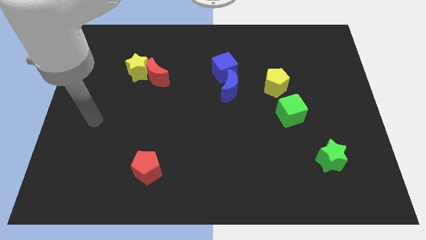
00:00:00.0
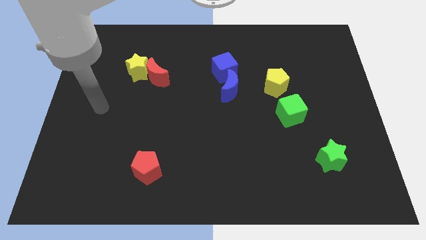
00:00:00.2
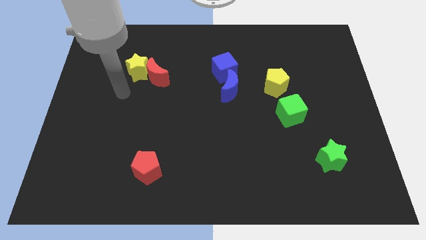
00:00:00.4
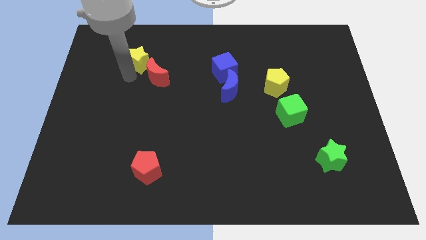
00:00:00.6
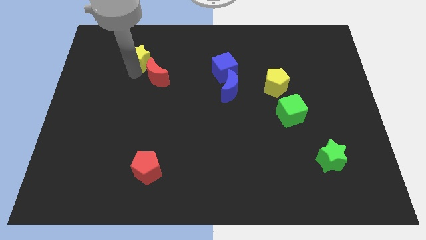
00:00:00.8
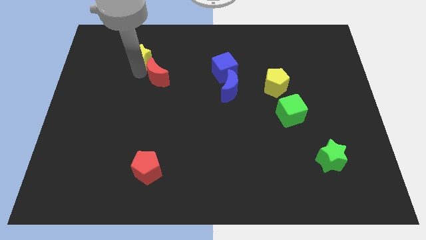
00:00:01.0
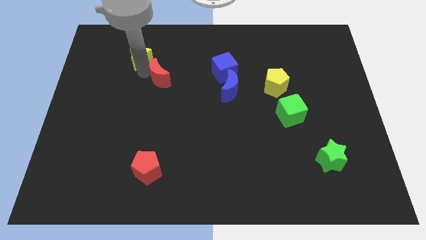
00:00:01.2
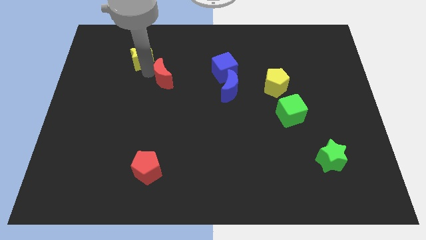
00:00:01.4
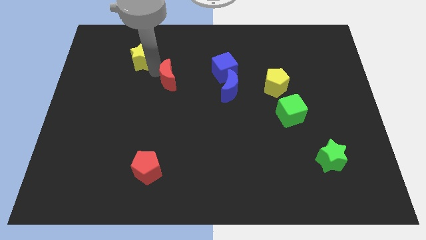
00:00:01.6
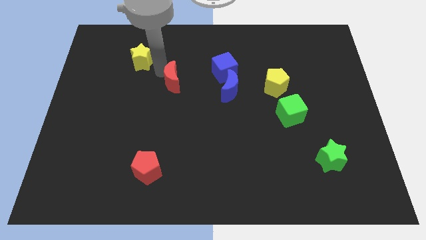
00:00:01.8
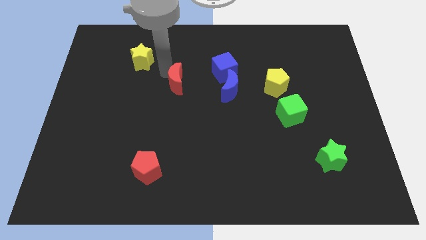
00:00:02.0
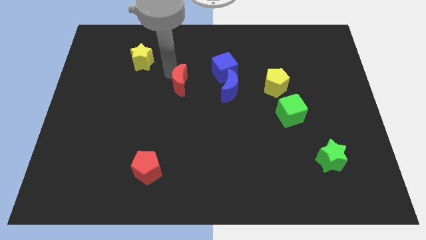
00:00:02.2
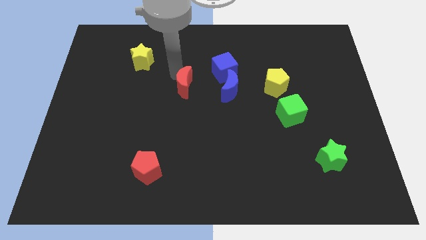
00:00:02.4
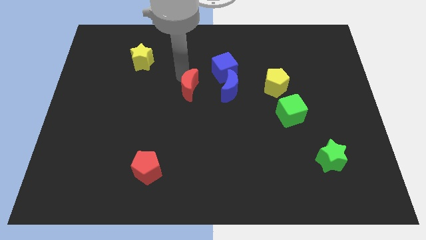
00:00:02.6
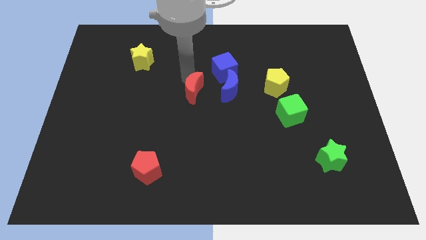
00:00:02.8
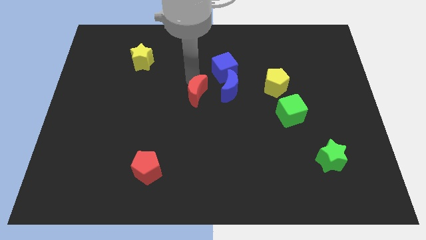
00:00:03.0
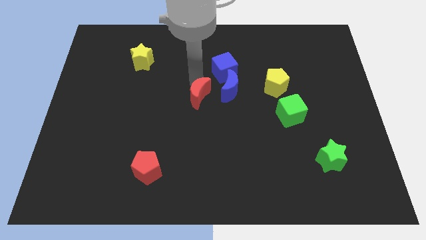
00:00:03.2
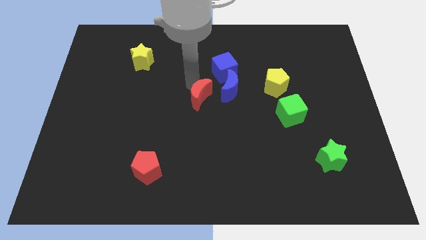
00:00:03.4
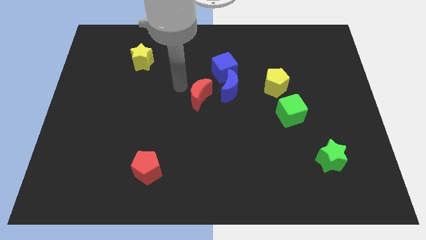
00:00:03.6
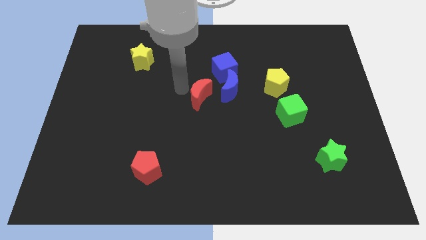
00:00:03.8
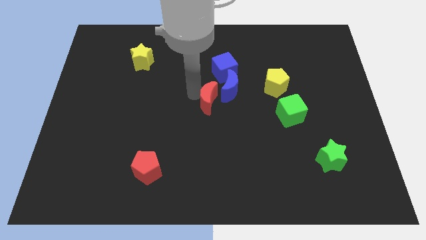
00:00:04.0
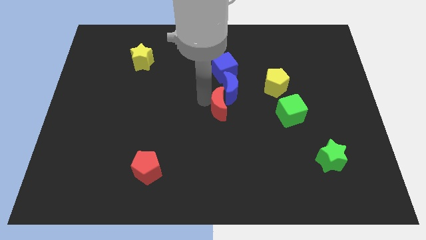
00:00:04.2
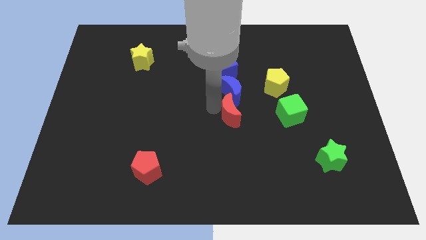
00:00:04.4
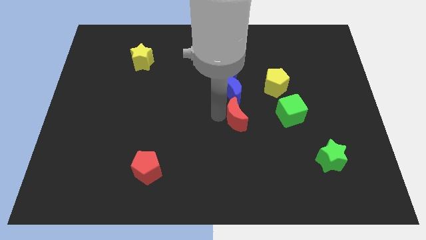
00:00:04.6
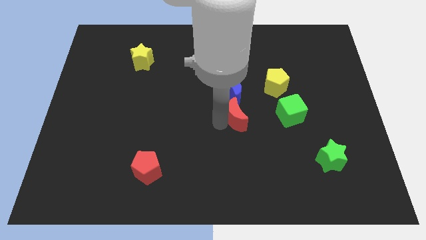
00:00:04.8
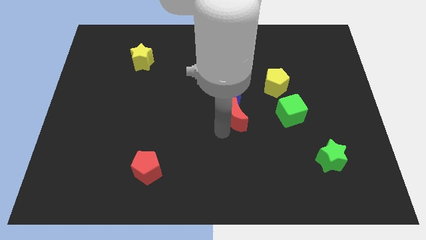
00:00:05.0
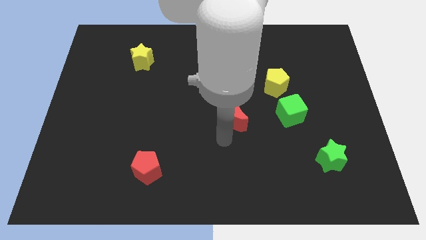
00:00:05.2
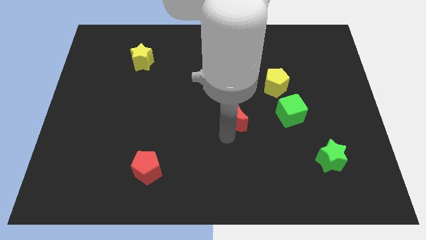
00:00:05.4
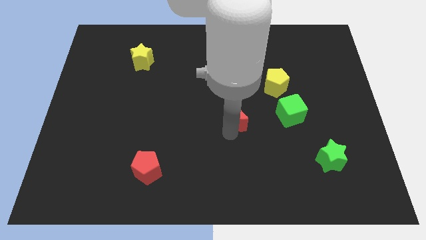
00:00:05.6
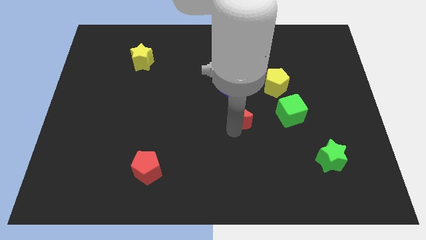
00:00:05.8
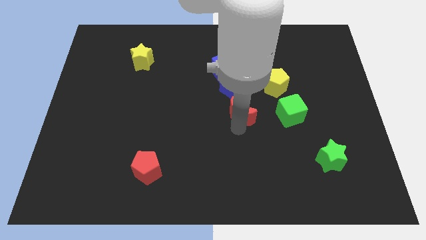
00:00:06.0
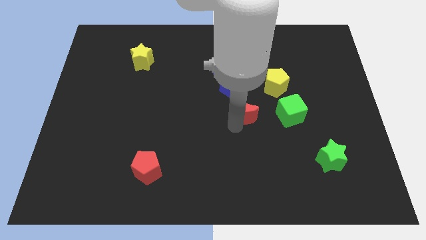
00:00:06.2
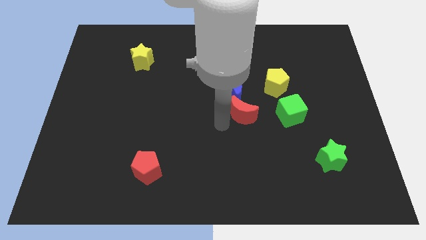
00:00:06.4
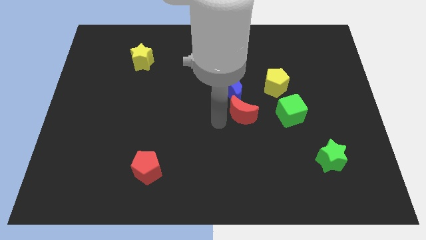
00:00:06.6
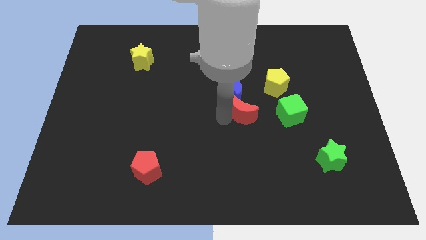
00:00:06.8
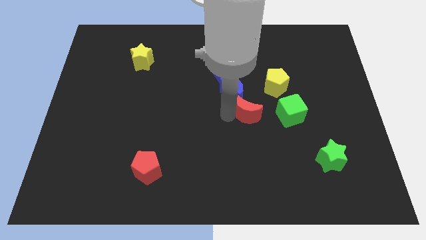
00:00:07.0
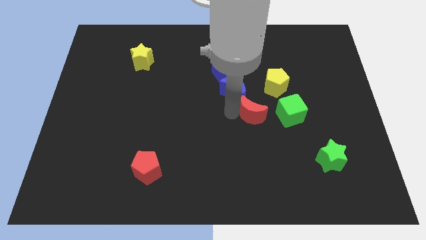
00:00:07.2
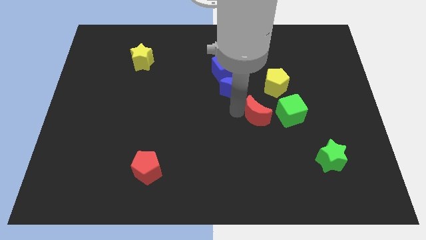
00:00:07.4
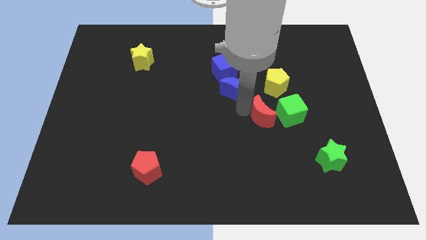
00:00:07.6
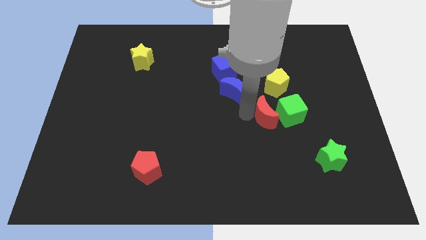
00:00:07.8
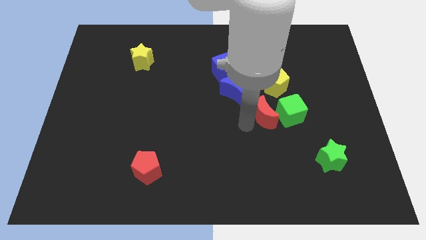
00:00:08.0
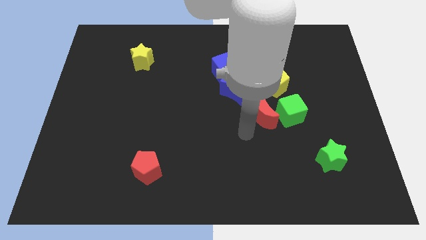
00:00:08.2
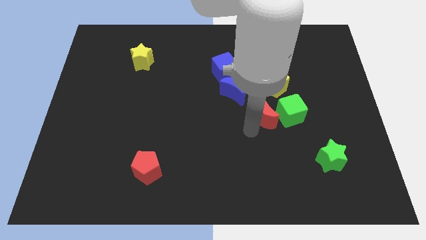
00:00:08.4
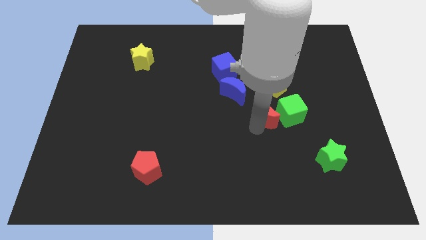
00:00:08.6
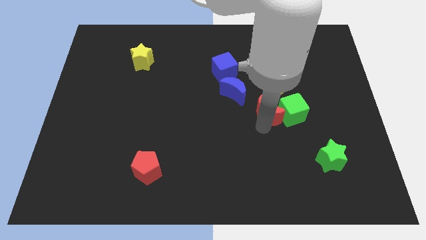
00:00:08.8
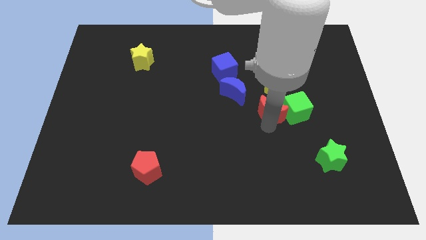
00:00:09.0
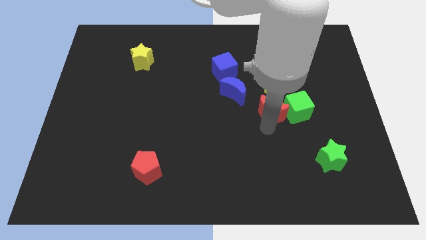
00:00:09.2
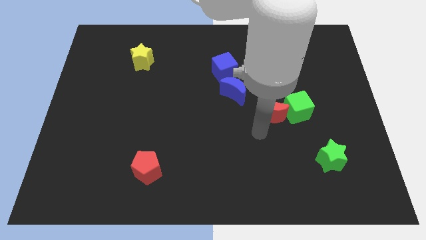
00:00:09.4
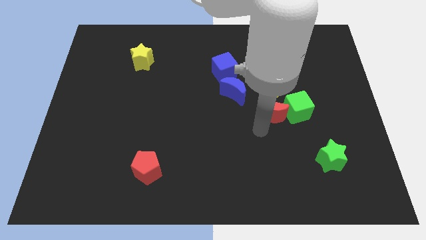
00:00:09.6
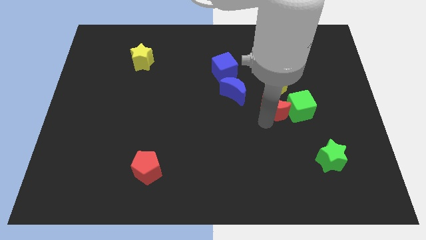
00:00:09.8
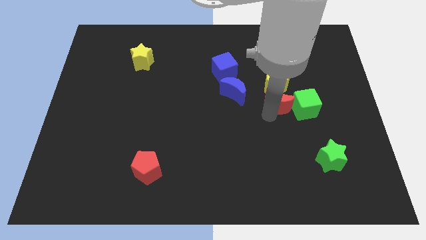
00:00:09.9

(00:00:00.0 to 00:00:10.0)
push the red moon to the right side of the blue moon

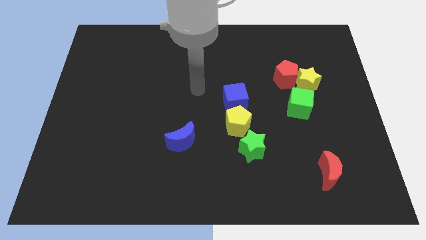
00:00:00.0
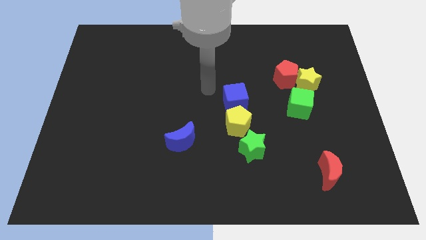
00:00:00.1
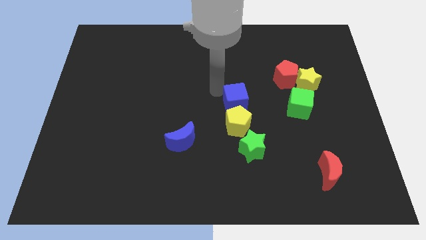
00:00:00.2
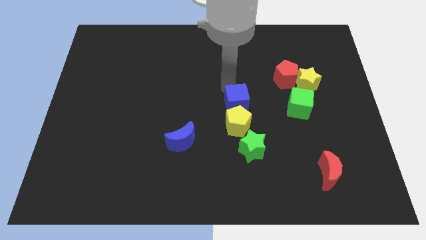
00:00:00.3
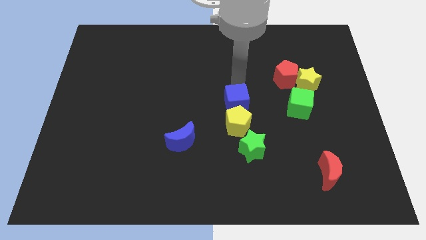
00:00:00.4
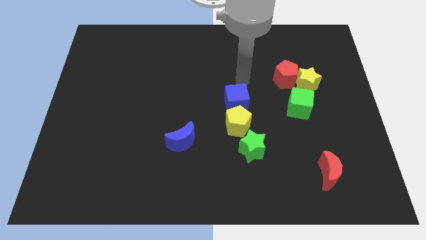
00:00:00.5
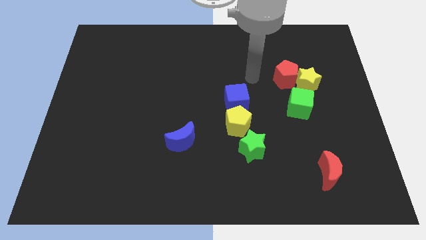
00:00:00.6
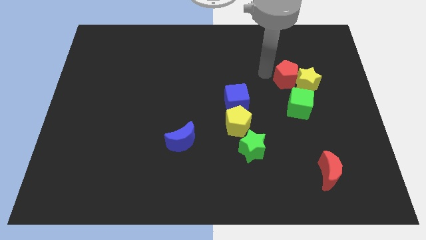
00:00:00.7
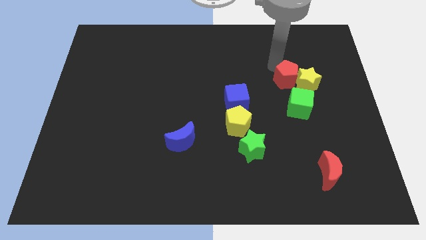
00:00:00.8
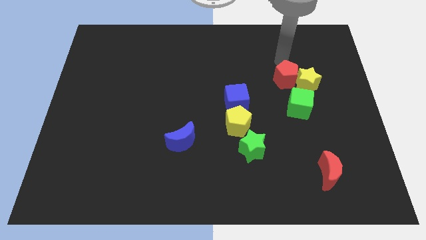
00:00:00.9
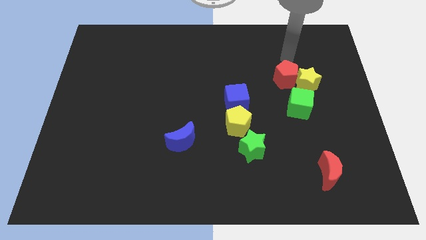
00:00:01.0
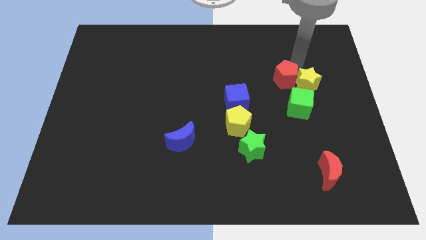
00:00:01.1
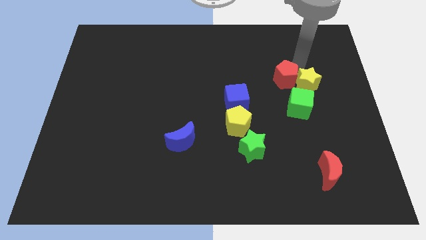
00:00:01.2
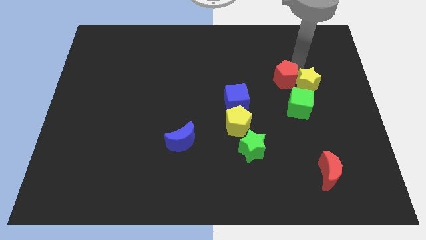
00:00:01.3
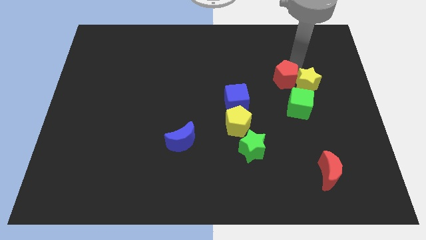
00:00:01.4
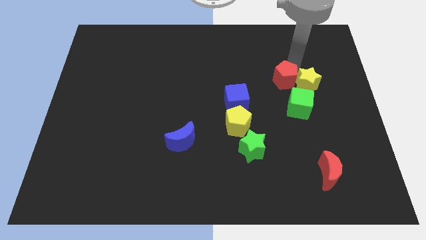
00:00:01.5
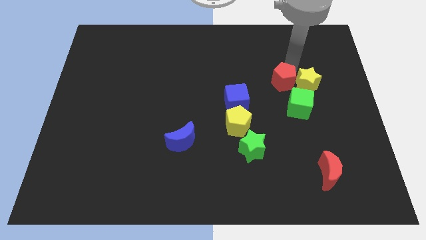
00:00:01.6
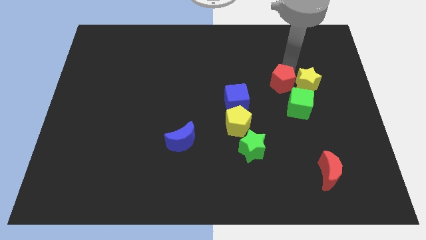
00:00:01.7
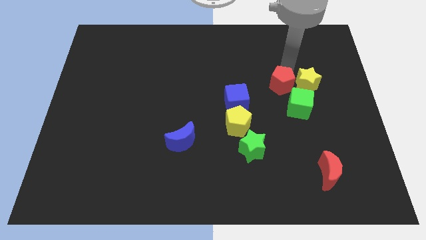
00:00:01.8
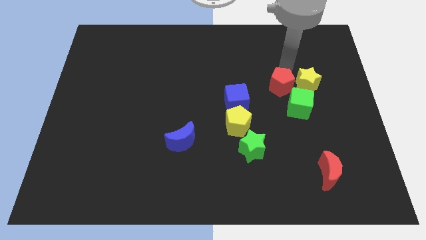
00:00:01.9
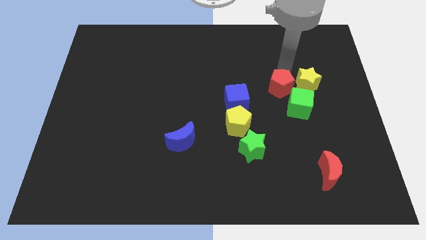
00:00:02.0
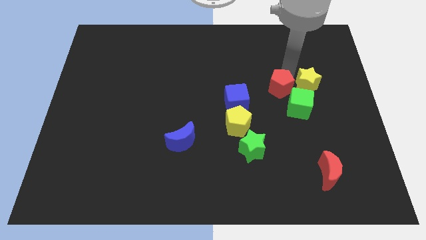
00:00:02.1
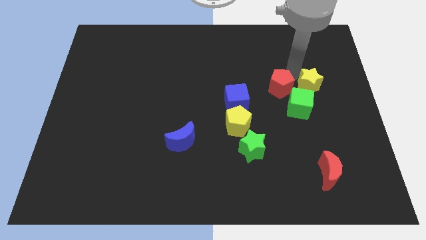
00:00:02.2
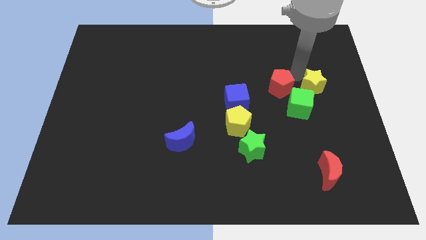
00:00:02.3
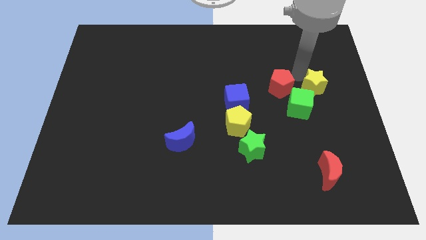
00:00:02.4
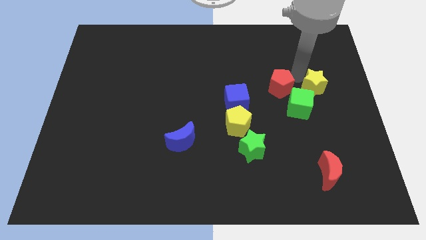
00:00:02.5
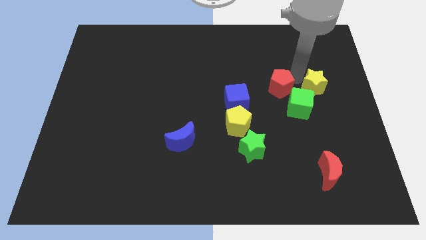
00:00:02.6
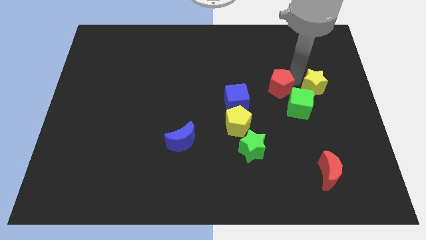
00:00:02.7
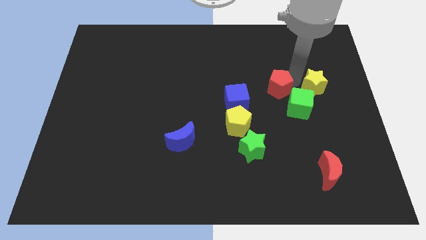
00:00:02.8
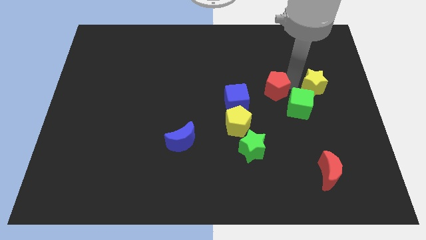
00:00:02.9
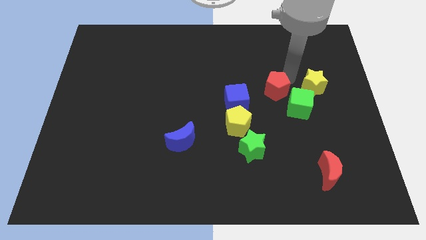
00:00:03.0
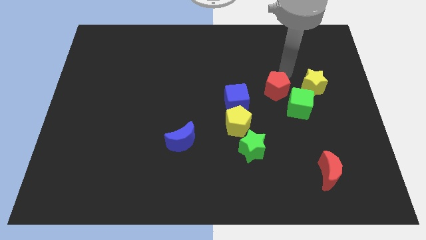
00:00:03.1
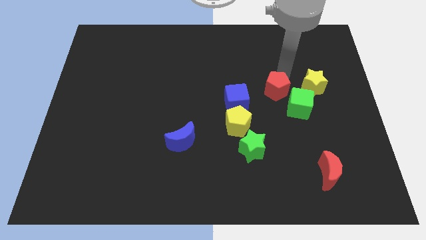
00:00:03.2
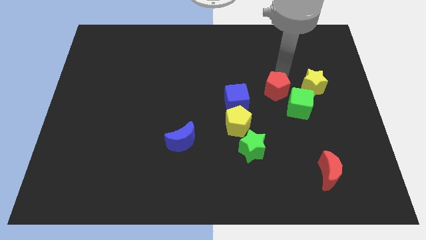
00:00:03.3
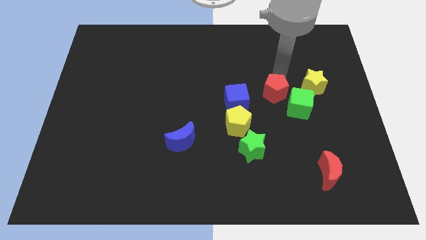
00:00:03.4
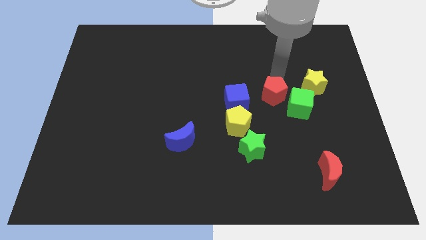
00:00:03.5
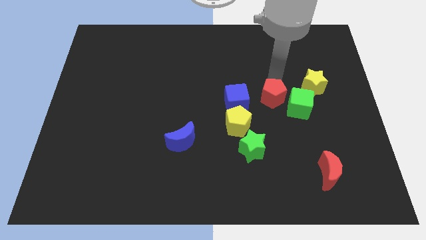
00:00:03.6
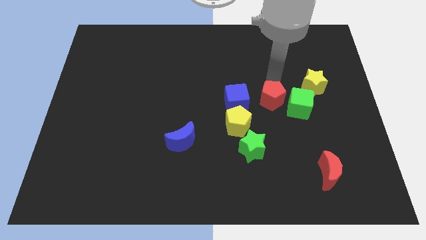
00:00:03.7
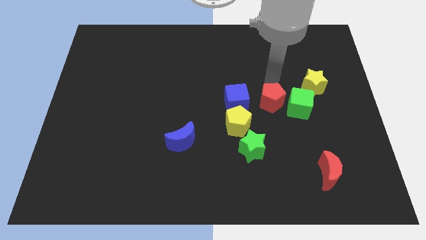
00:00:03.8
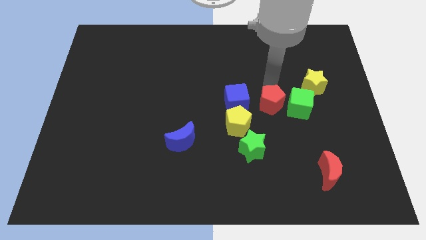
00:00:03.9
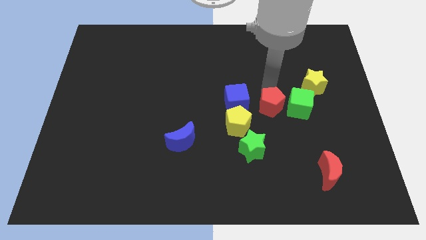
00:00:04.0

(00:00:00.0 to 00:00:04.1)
put the red pentagon diagonally down and to the right of the blue cube
